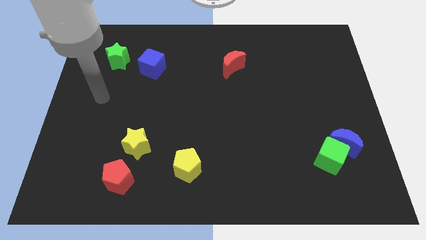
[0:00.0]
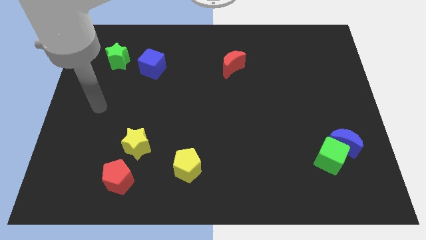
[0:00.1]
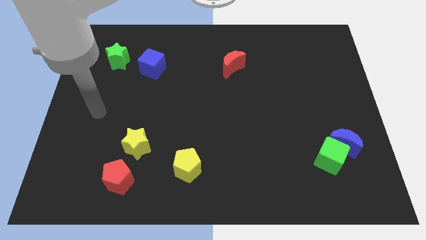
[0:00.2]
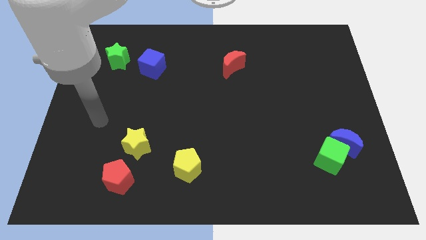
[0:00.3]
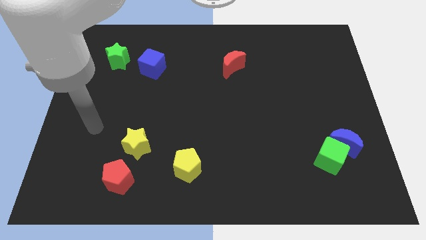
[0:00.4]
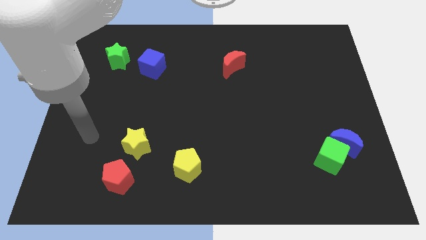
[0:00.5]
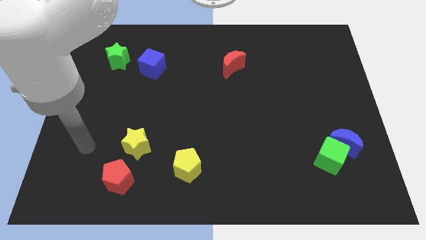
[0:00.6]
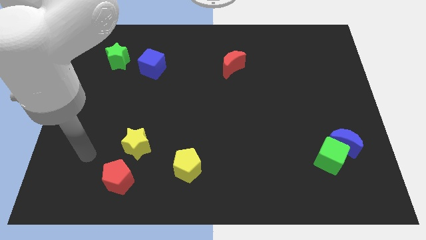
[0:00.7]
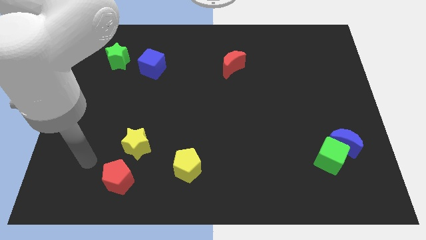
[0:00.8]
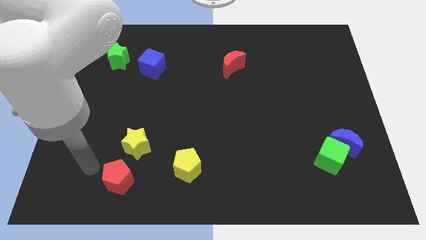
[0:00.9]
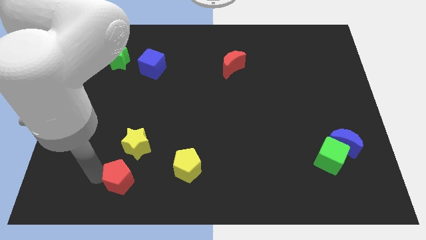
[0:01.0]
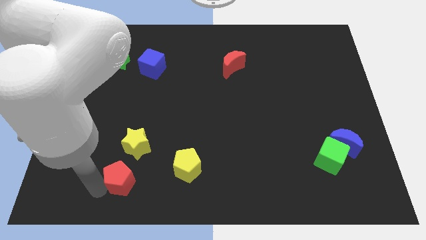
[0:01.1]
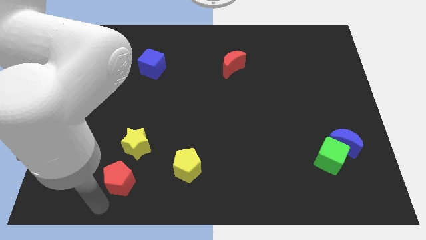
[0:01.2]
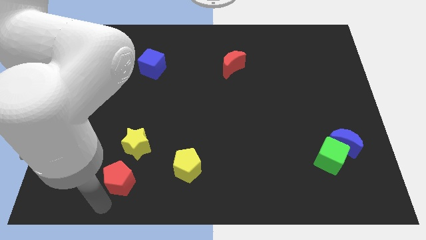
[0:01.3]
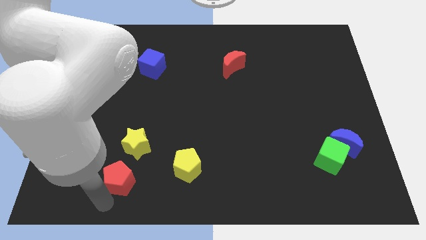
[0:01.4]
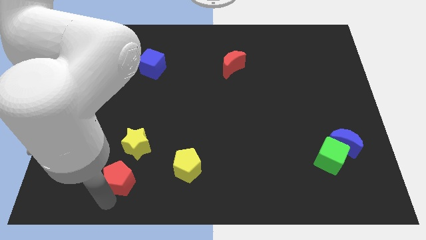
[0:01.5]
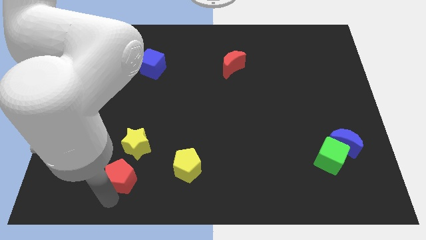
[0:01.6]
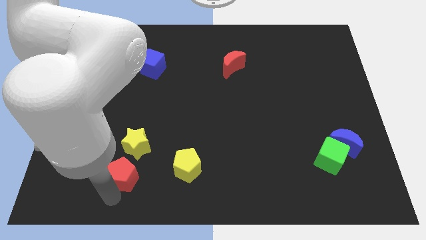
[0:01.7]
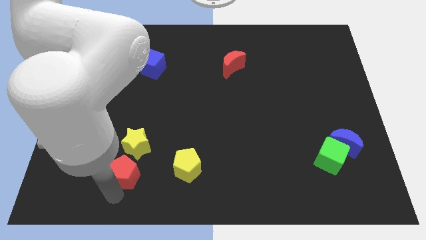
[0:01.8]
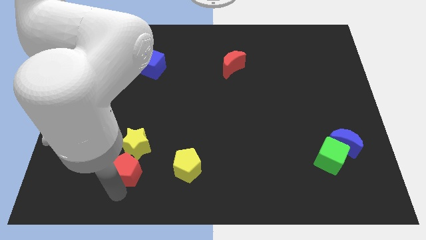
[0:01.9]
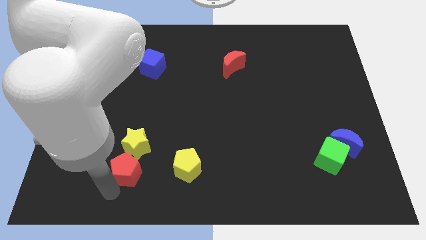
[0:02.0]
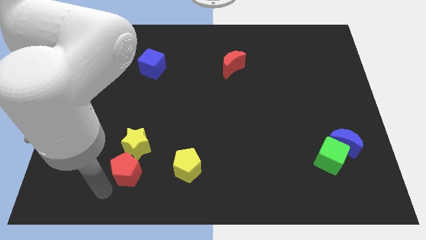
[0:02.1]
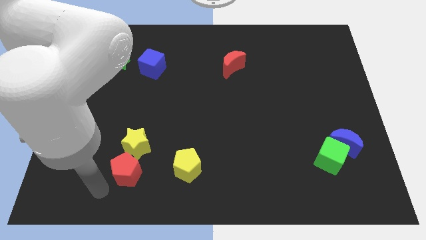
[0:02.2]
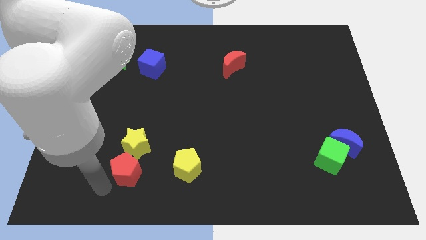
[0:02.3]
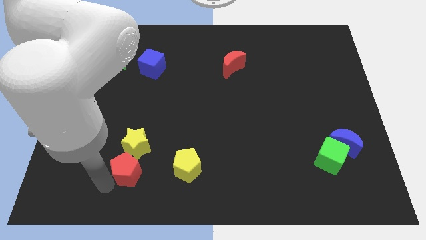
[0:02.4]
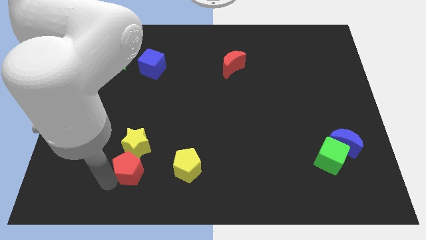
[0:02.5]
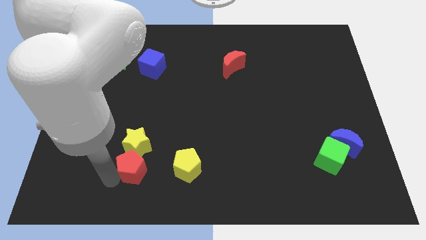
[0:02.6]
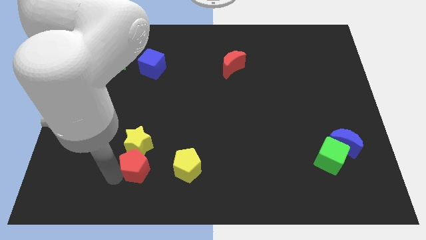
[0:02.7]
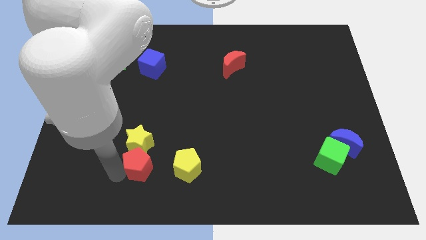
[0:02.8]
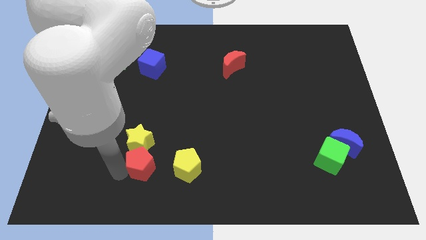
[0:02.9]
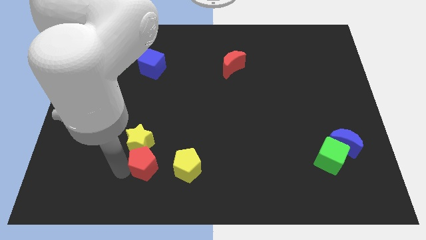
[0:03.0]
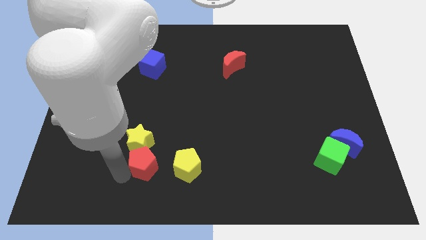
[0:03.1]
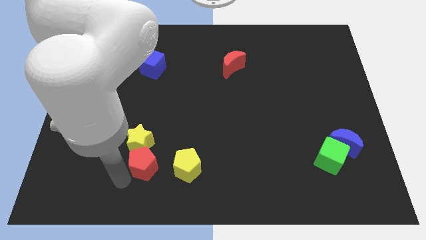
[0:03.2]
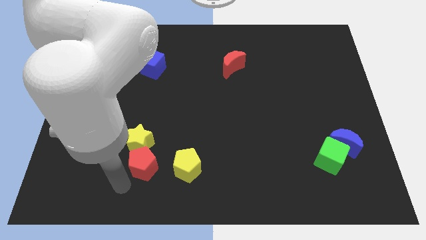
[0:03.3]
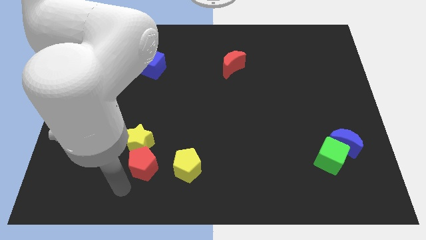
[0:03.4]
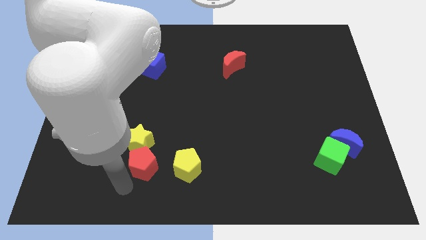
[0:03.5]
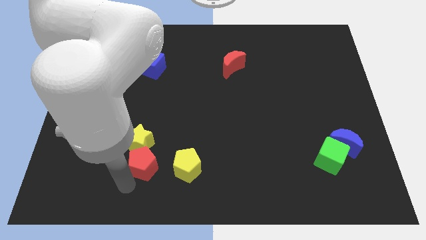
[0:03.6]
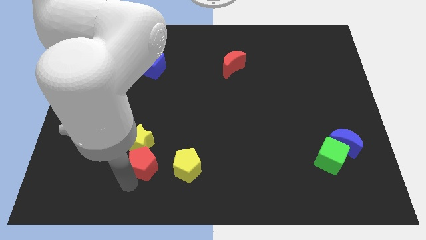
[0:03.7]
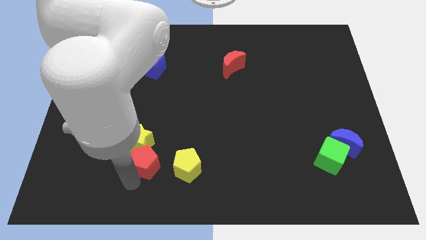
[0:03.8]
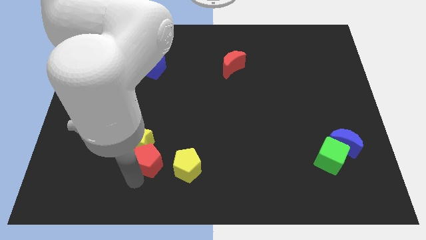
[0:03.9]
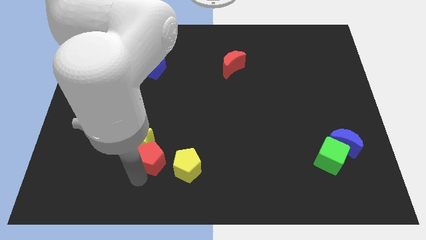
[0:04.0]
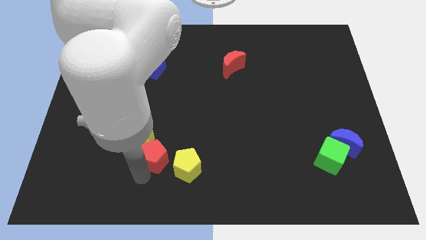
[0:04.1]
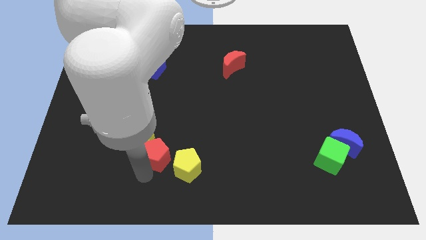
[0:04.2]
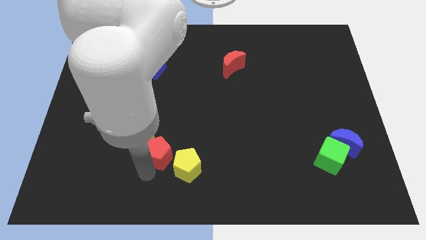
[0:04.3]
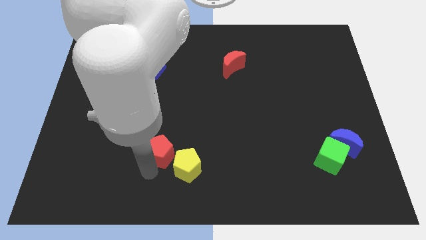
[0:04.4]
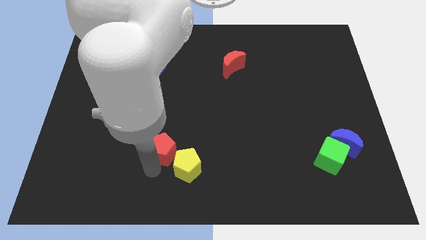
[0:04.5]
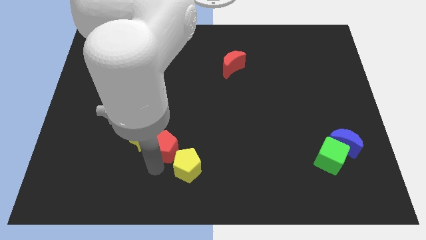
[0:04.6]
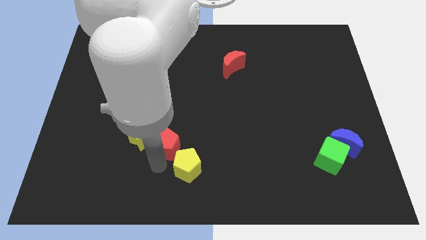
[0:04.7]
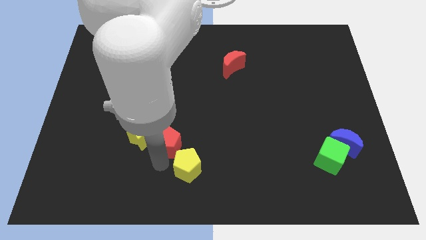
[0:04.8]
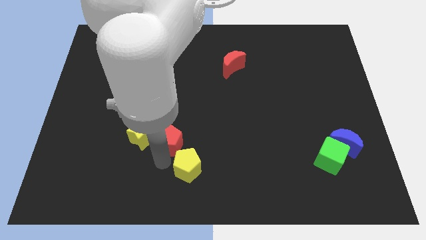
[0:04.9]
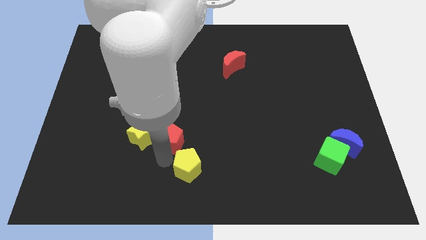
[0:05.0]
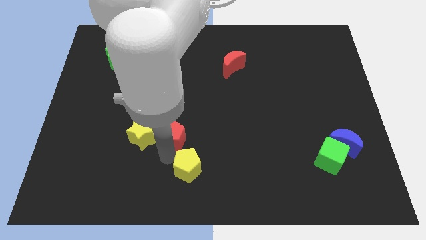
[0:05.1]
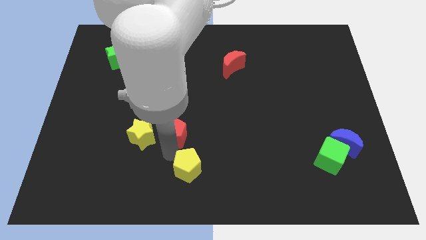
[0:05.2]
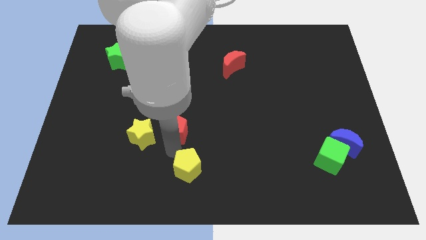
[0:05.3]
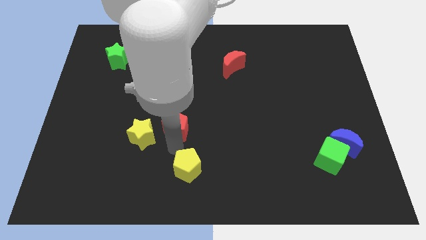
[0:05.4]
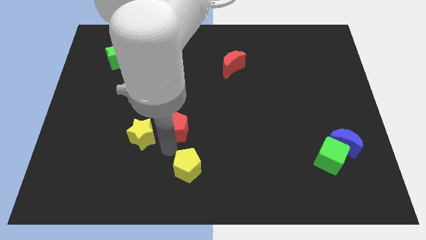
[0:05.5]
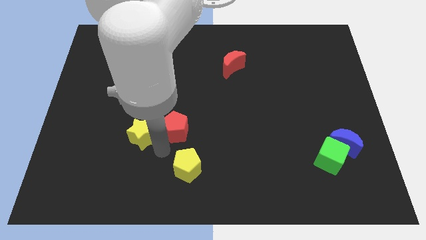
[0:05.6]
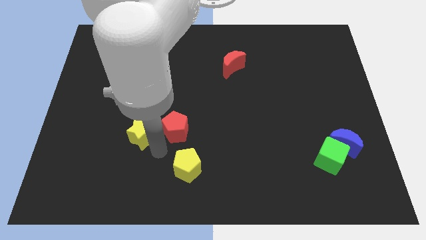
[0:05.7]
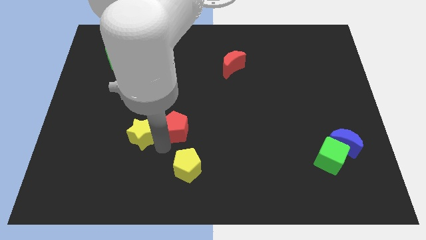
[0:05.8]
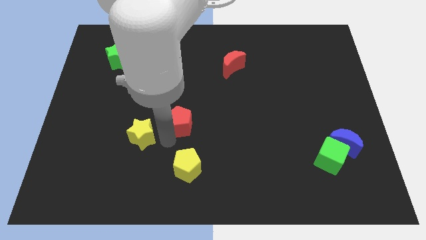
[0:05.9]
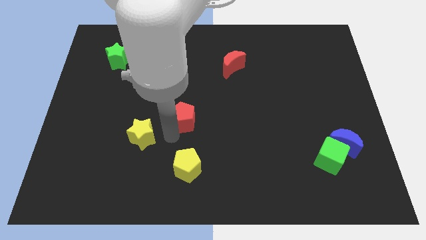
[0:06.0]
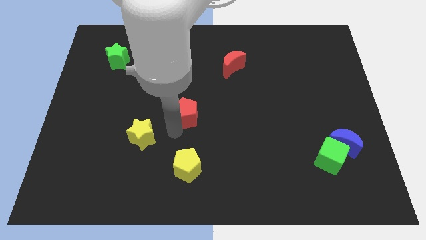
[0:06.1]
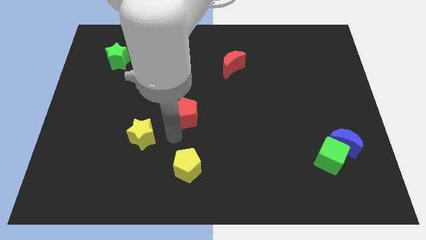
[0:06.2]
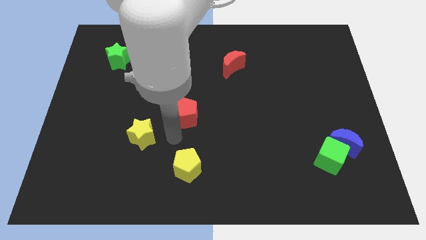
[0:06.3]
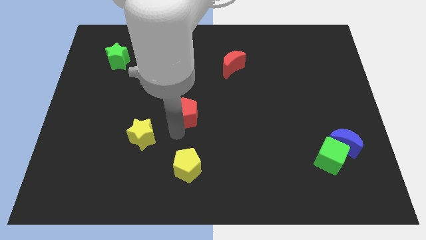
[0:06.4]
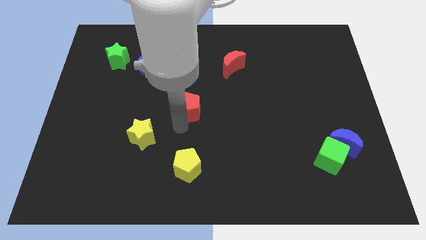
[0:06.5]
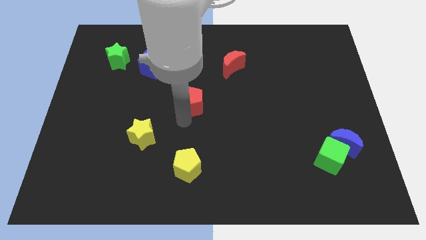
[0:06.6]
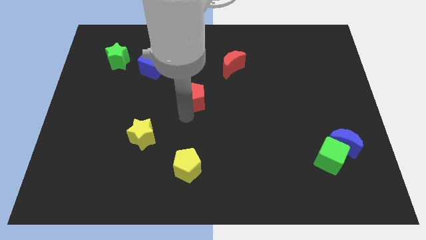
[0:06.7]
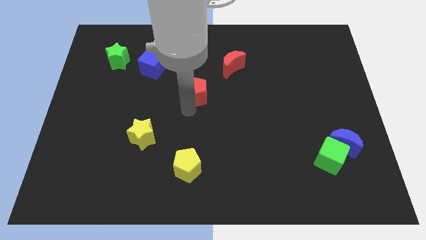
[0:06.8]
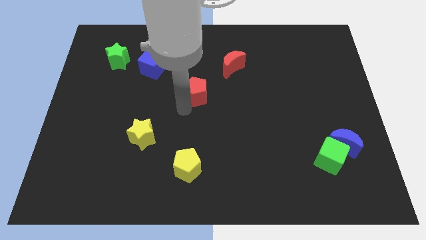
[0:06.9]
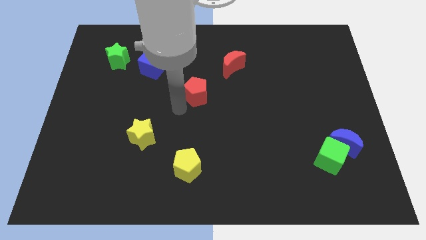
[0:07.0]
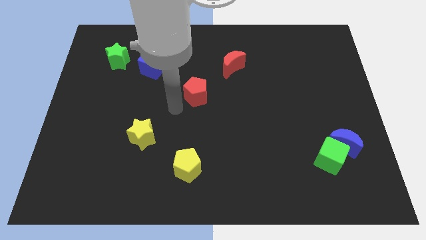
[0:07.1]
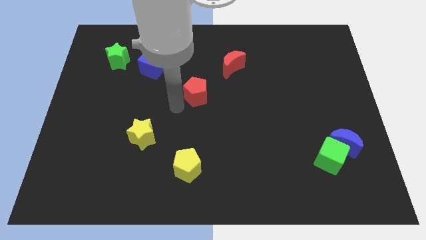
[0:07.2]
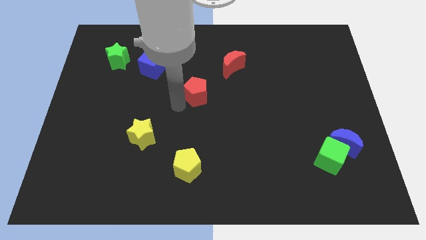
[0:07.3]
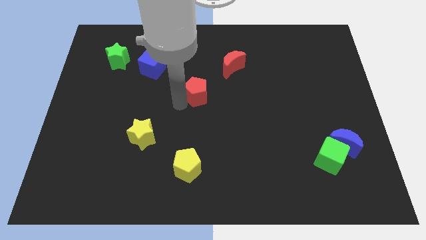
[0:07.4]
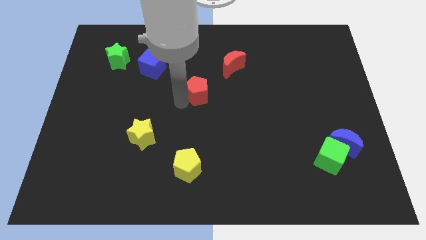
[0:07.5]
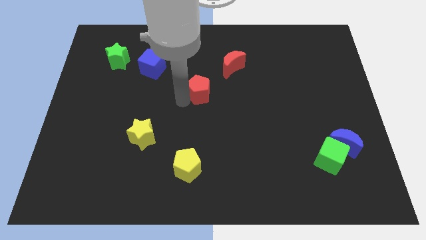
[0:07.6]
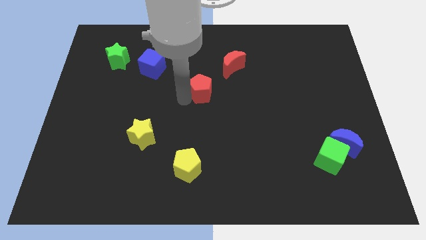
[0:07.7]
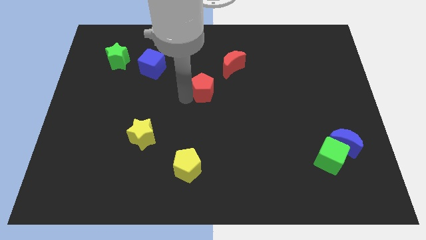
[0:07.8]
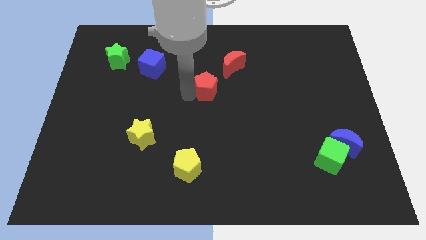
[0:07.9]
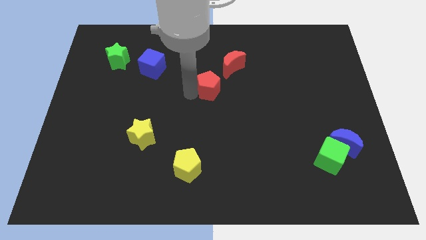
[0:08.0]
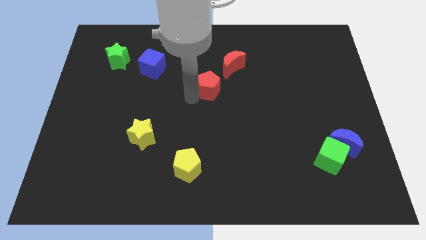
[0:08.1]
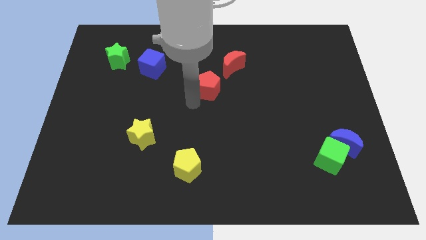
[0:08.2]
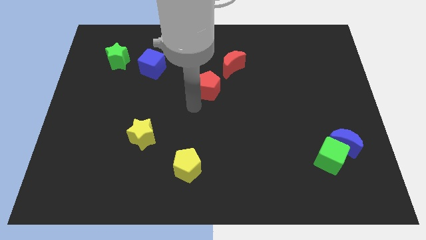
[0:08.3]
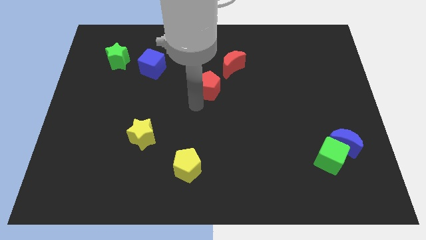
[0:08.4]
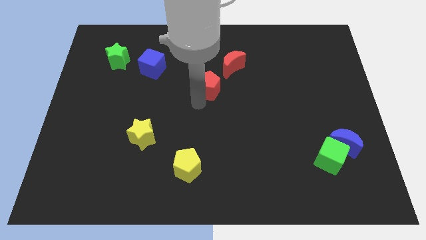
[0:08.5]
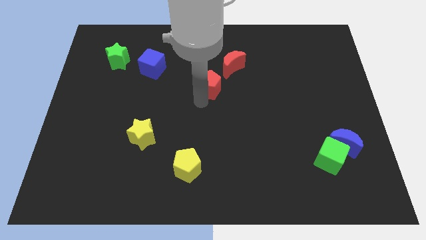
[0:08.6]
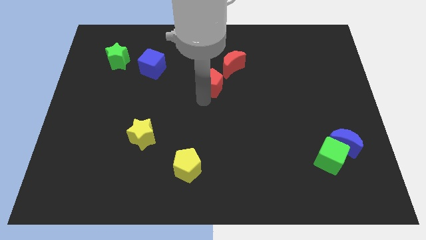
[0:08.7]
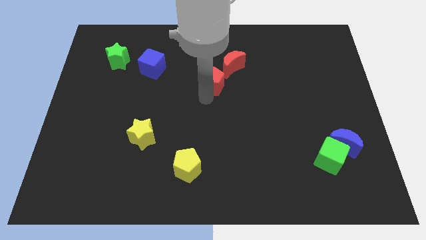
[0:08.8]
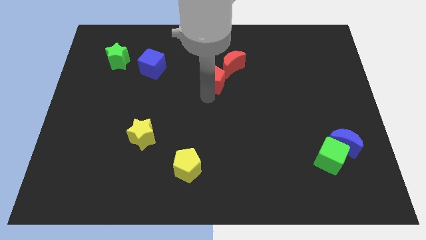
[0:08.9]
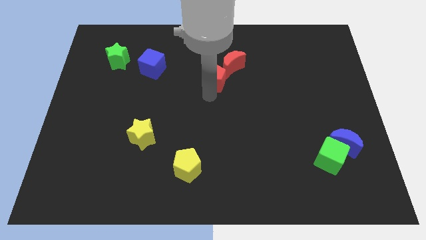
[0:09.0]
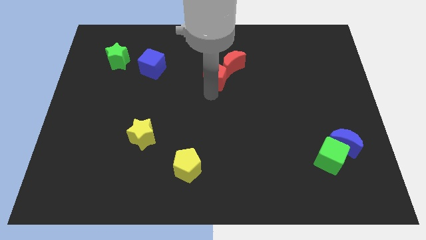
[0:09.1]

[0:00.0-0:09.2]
push the red pentagon towards the red moon
